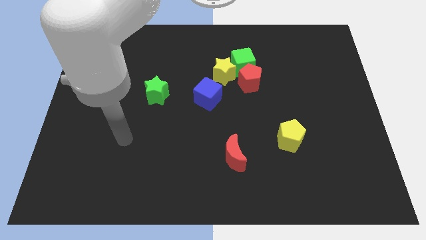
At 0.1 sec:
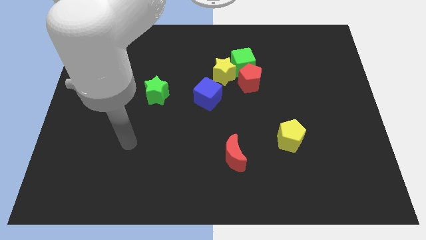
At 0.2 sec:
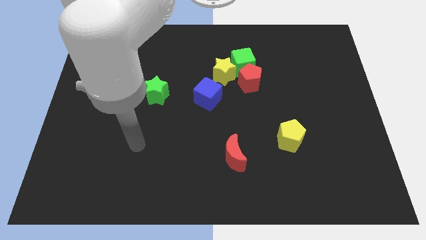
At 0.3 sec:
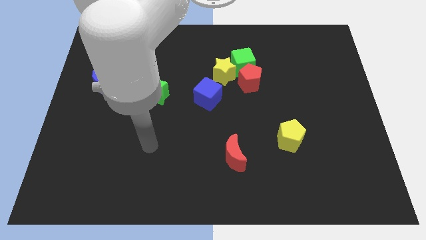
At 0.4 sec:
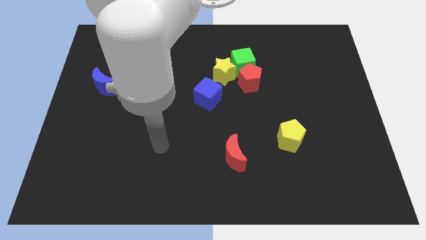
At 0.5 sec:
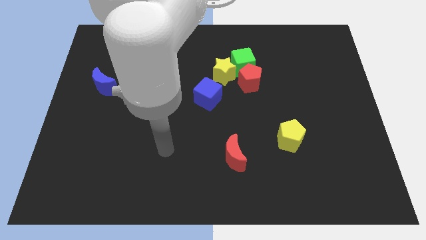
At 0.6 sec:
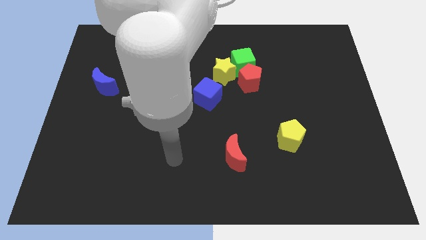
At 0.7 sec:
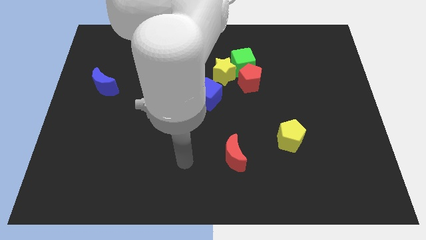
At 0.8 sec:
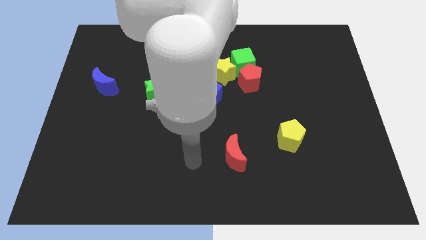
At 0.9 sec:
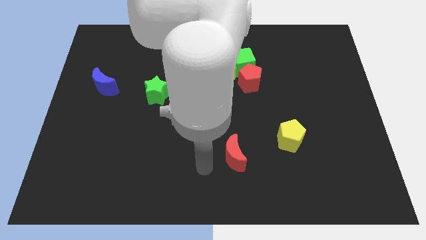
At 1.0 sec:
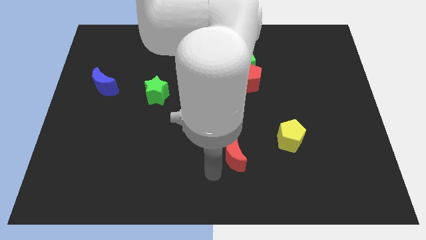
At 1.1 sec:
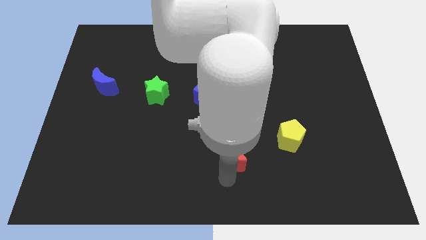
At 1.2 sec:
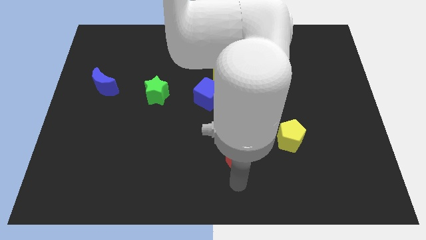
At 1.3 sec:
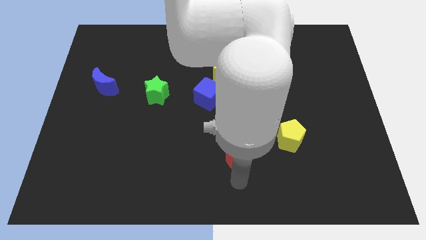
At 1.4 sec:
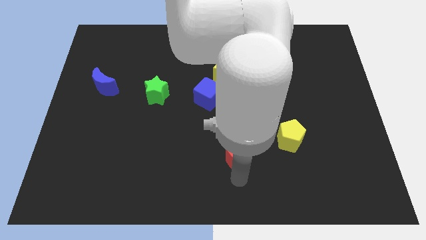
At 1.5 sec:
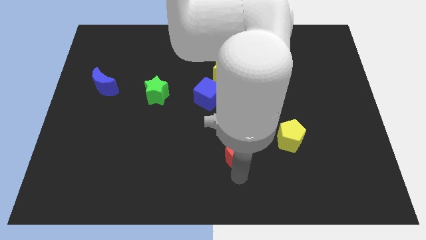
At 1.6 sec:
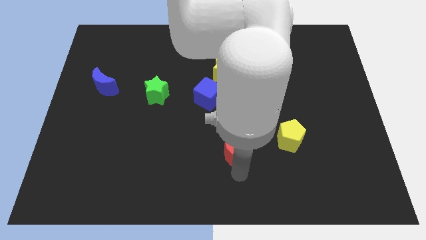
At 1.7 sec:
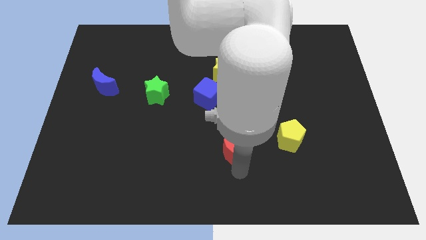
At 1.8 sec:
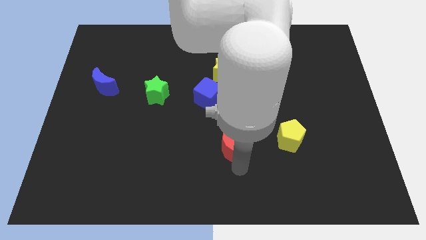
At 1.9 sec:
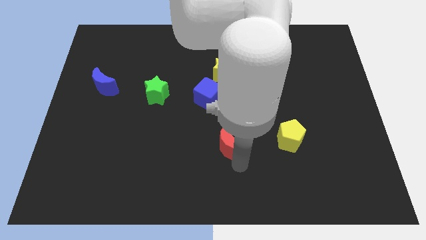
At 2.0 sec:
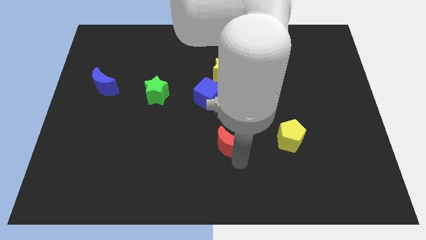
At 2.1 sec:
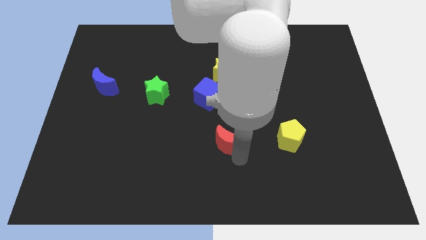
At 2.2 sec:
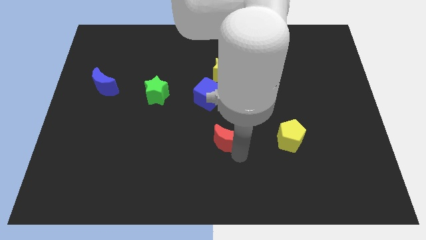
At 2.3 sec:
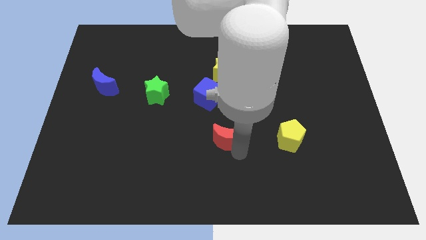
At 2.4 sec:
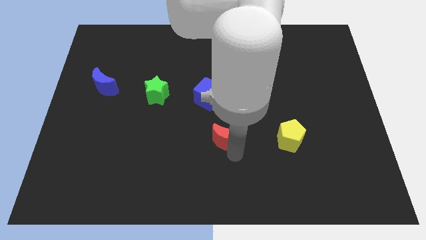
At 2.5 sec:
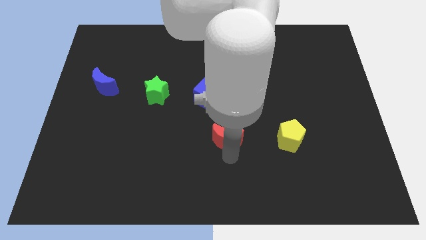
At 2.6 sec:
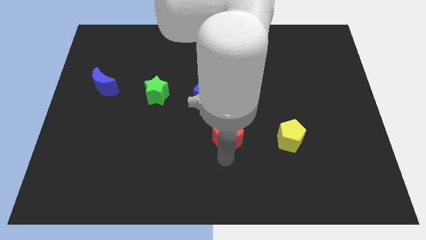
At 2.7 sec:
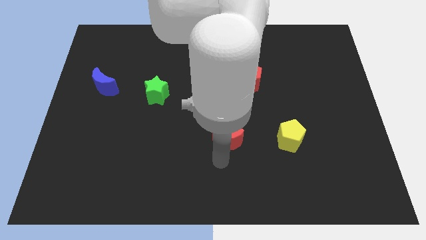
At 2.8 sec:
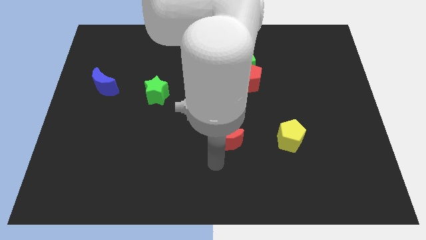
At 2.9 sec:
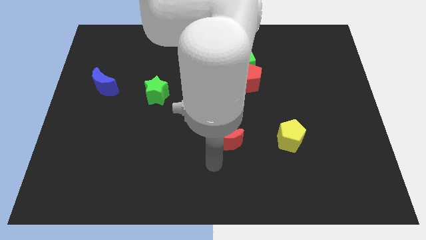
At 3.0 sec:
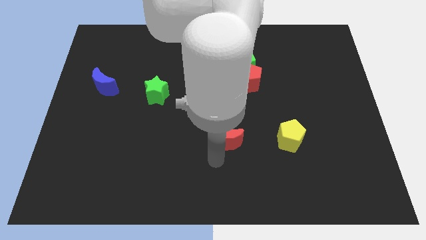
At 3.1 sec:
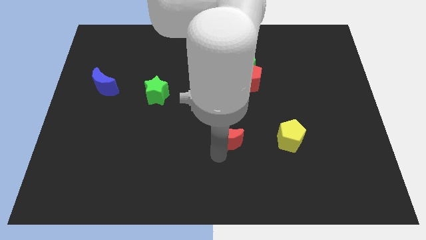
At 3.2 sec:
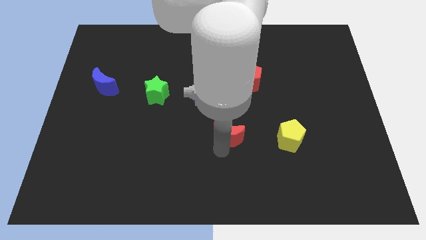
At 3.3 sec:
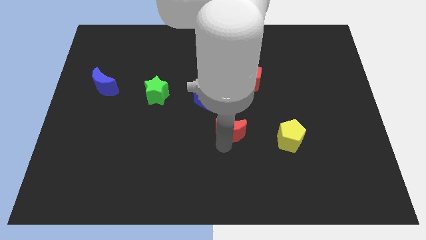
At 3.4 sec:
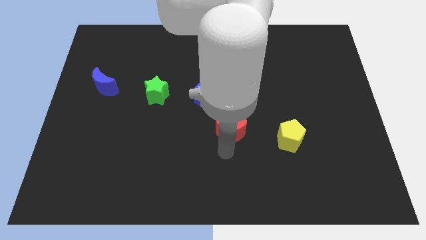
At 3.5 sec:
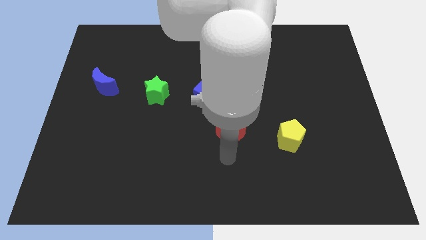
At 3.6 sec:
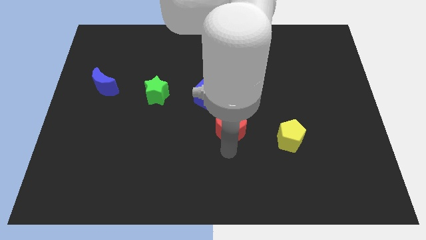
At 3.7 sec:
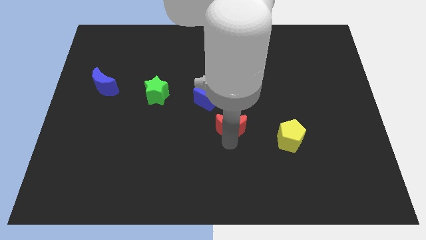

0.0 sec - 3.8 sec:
slightly slide the red moon up

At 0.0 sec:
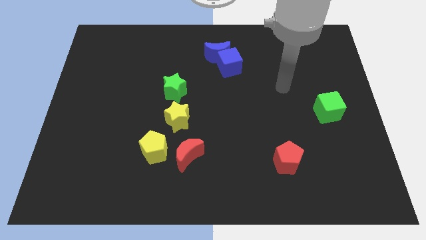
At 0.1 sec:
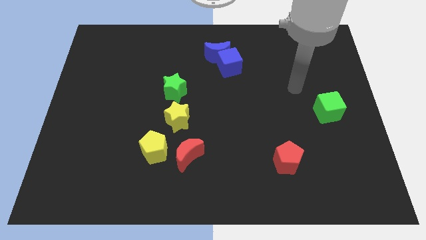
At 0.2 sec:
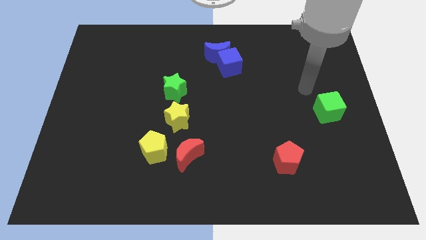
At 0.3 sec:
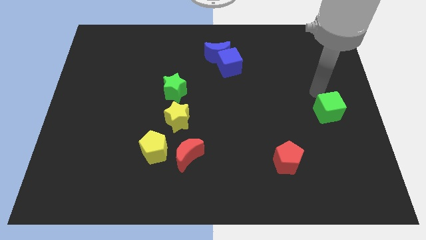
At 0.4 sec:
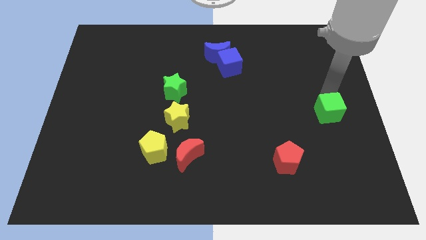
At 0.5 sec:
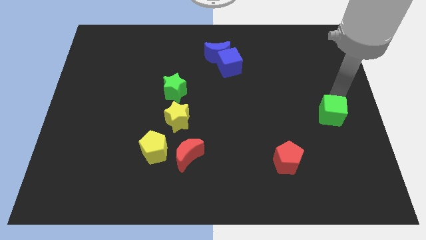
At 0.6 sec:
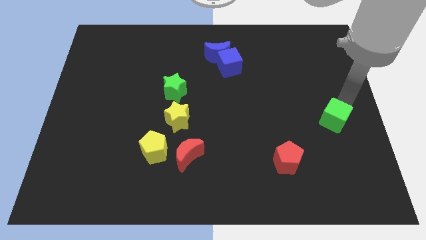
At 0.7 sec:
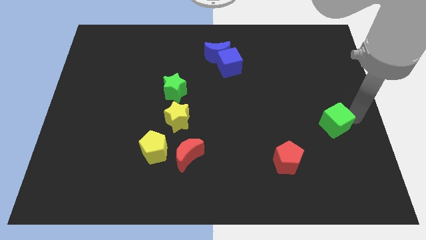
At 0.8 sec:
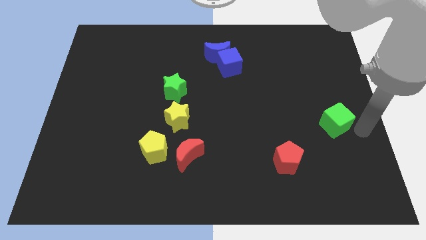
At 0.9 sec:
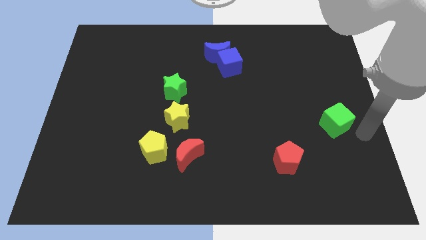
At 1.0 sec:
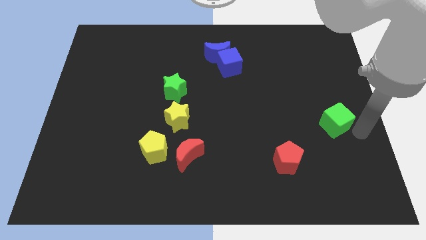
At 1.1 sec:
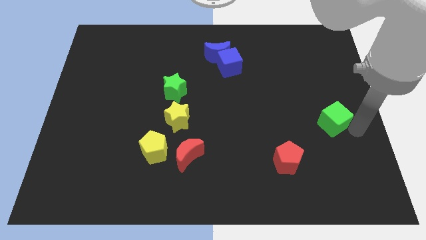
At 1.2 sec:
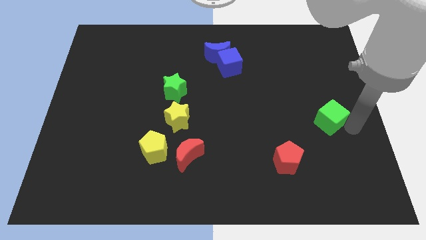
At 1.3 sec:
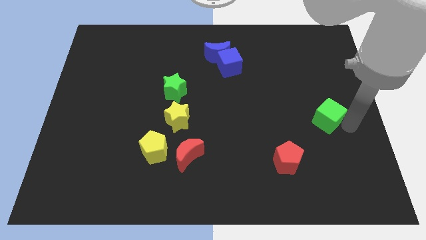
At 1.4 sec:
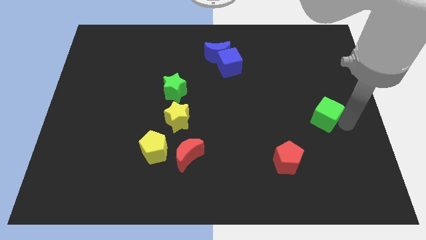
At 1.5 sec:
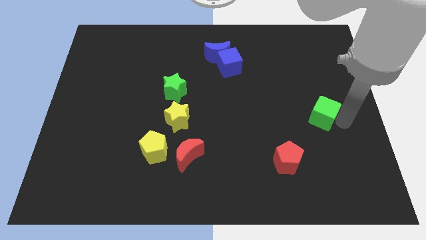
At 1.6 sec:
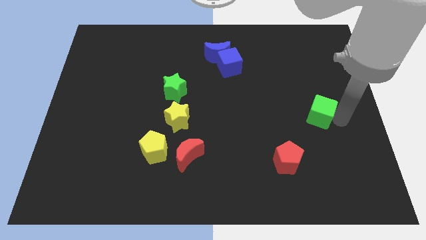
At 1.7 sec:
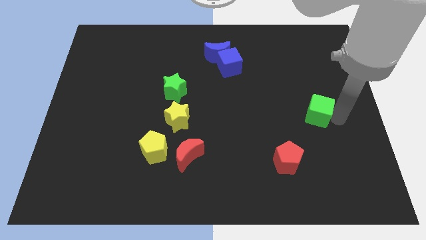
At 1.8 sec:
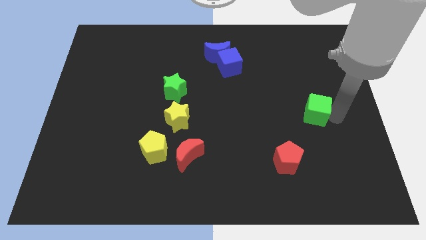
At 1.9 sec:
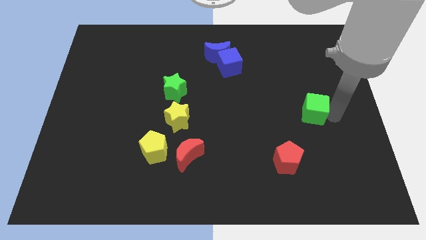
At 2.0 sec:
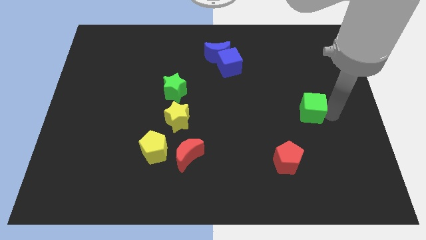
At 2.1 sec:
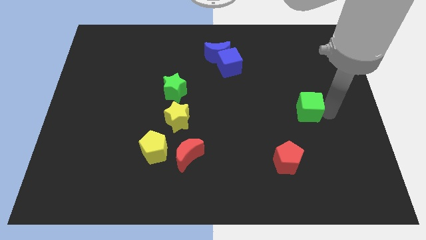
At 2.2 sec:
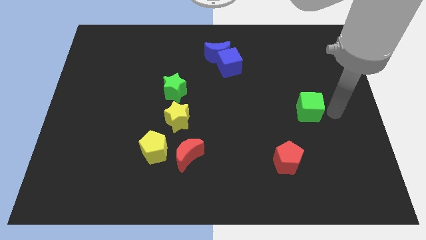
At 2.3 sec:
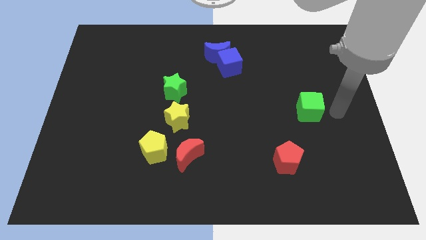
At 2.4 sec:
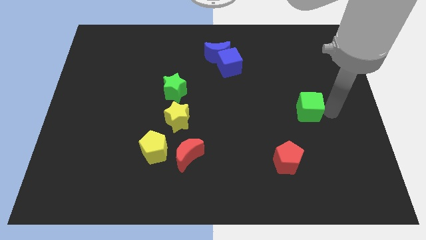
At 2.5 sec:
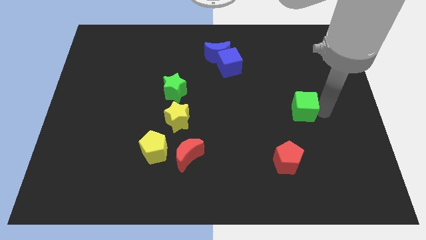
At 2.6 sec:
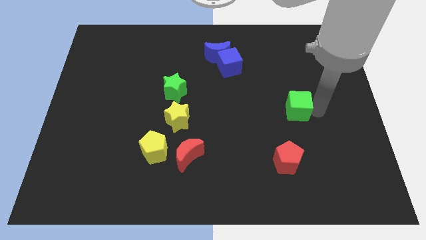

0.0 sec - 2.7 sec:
slightly move the green cube left

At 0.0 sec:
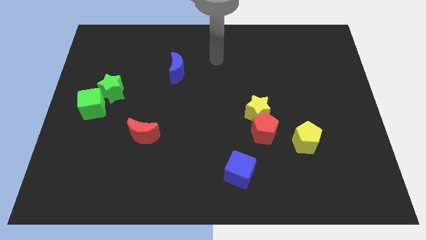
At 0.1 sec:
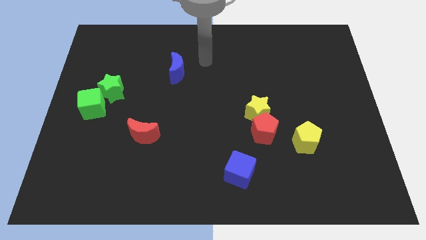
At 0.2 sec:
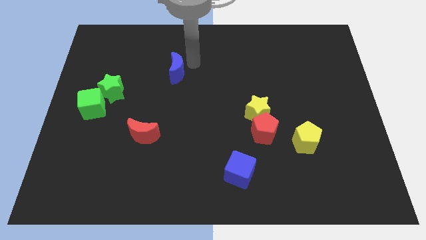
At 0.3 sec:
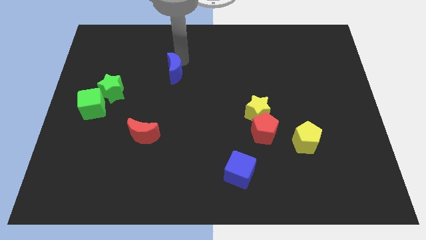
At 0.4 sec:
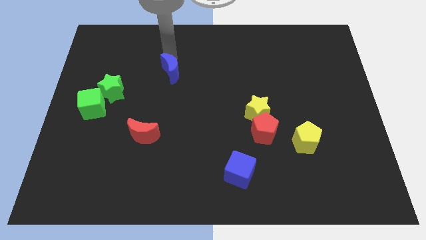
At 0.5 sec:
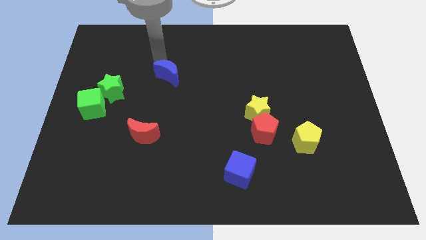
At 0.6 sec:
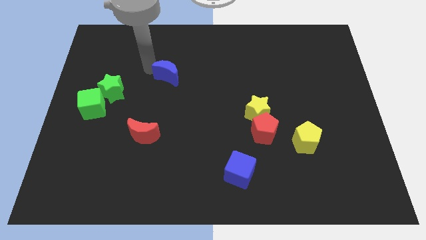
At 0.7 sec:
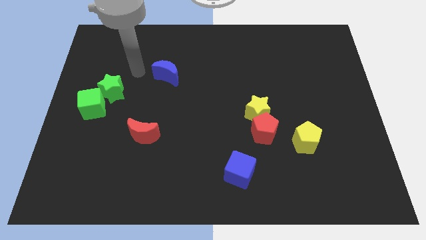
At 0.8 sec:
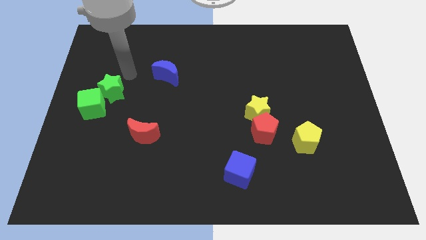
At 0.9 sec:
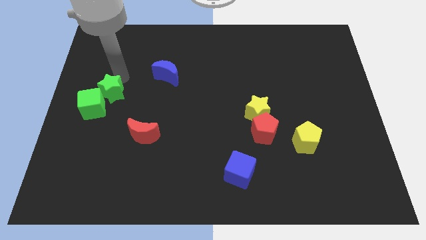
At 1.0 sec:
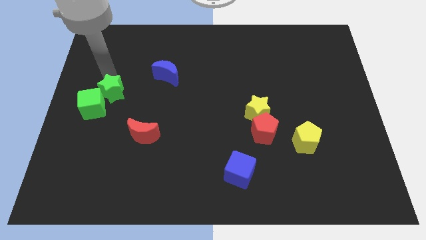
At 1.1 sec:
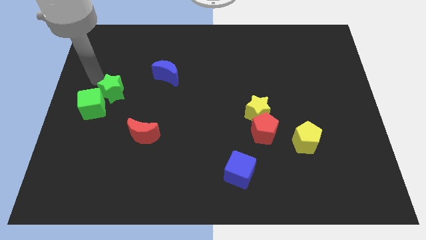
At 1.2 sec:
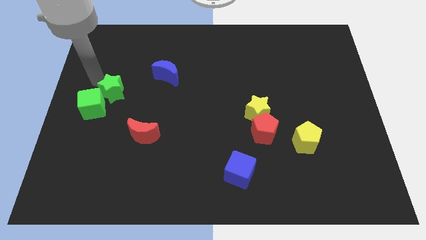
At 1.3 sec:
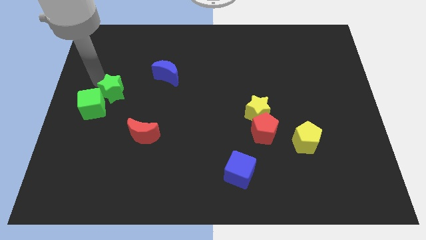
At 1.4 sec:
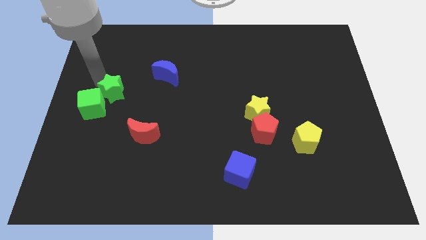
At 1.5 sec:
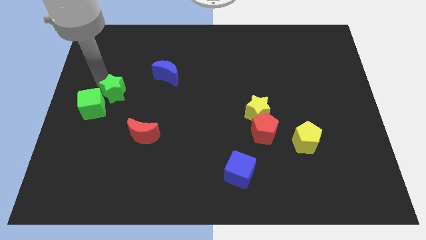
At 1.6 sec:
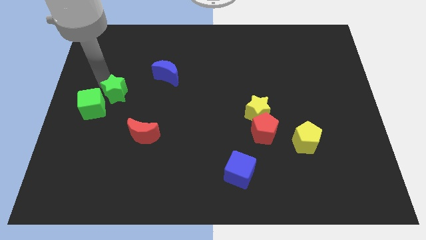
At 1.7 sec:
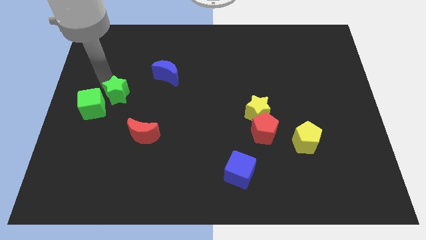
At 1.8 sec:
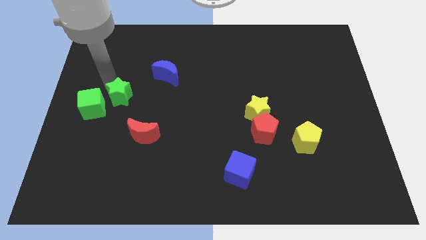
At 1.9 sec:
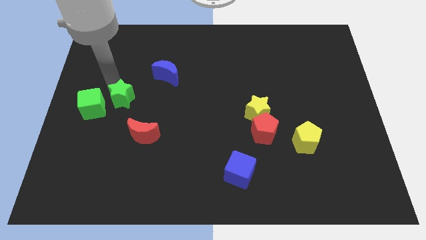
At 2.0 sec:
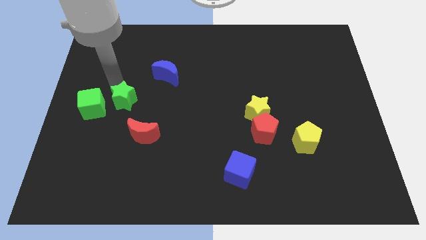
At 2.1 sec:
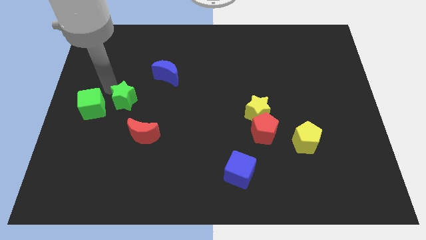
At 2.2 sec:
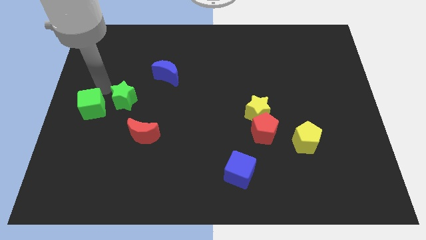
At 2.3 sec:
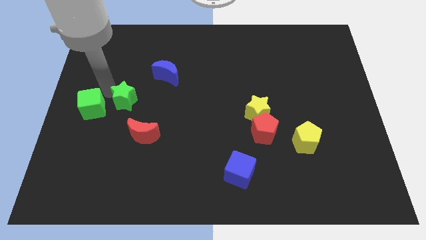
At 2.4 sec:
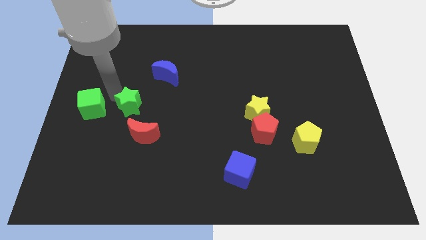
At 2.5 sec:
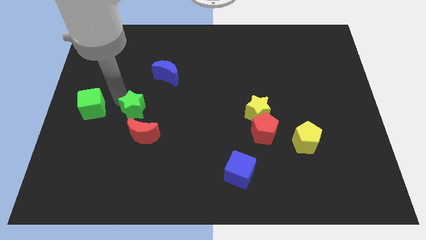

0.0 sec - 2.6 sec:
slide the green star down and then to the right a little
